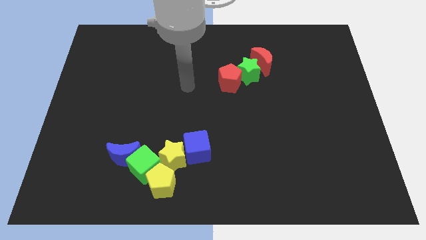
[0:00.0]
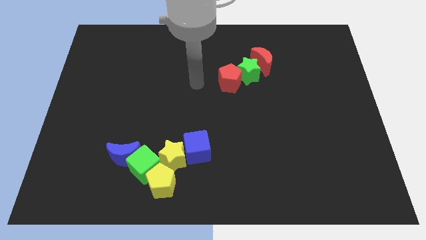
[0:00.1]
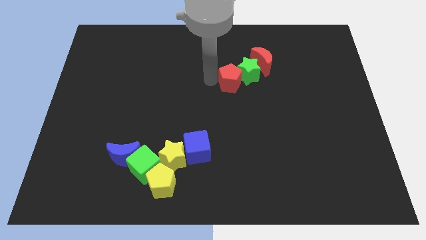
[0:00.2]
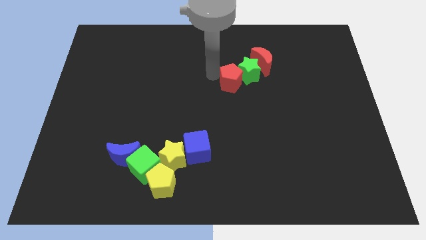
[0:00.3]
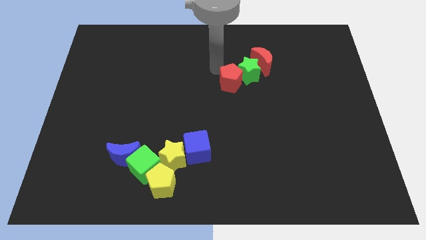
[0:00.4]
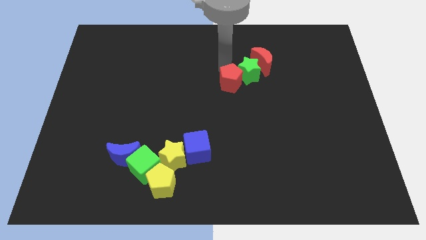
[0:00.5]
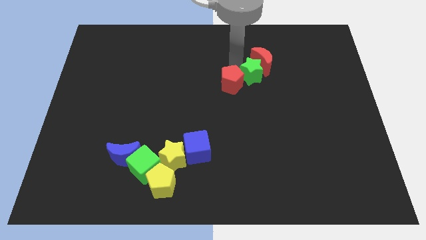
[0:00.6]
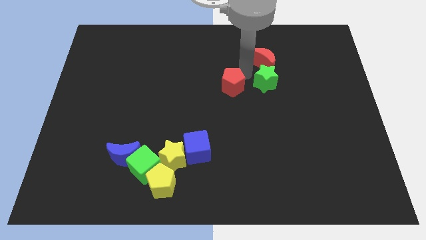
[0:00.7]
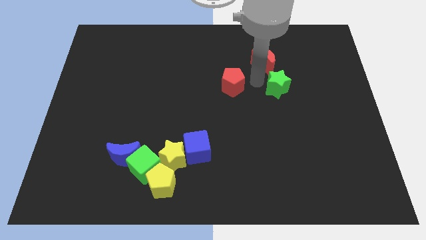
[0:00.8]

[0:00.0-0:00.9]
move the red pentagon away from the green star

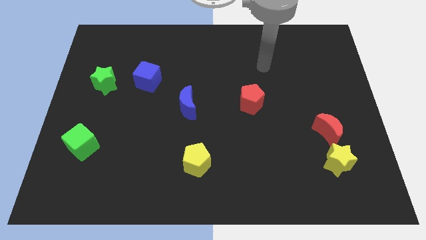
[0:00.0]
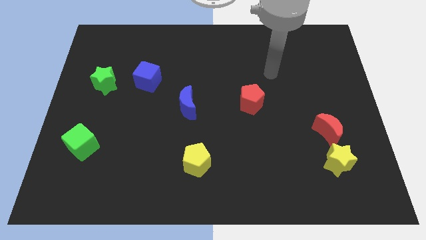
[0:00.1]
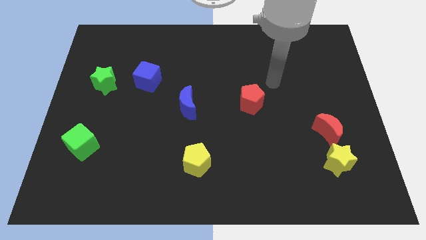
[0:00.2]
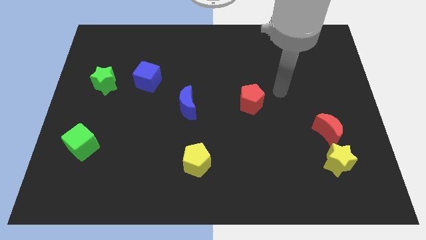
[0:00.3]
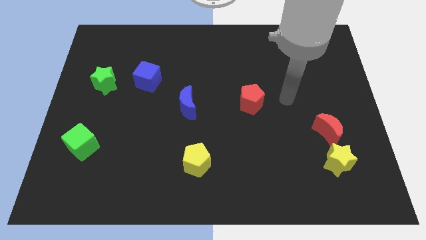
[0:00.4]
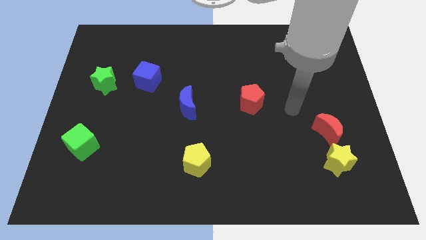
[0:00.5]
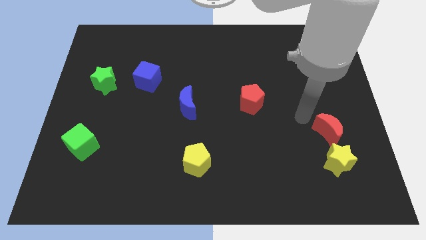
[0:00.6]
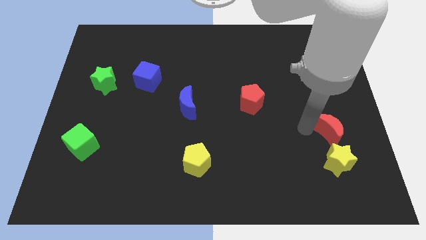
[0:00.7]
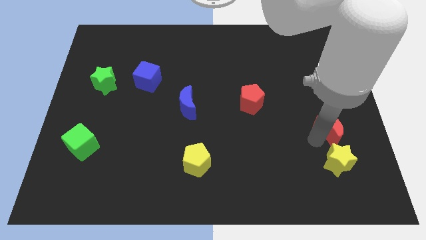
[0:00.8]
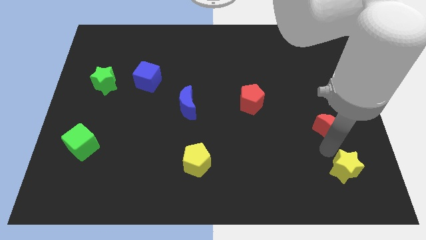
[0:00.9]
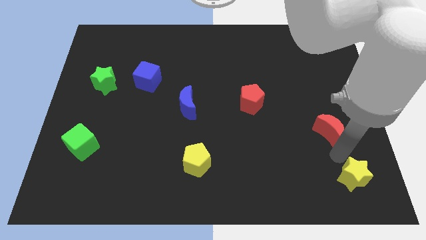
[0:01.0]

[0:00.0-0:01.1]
move the red moon away from the yellow star

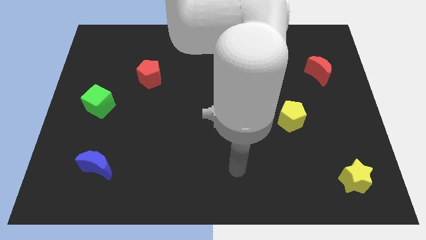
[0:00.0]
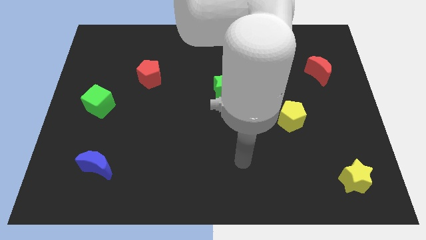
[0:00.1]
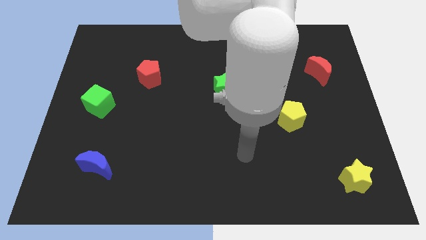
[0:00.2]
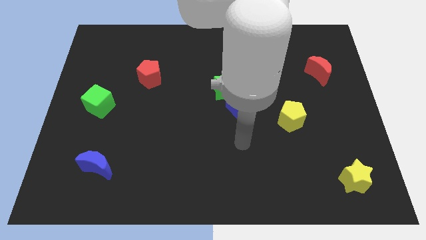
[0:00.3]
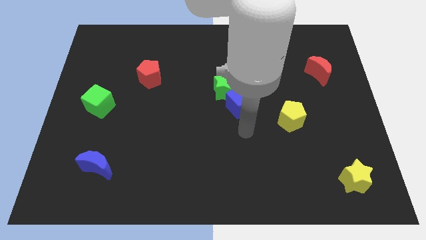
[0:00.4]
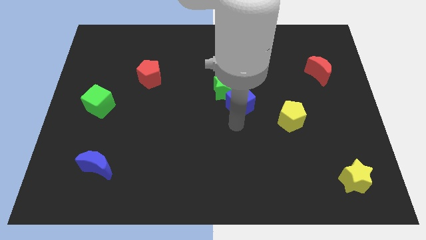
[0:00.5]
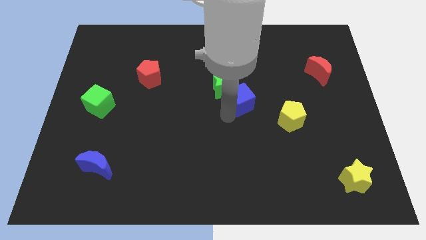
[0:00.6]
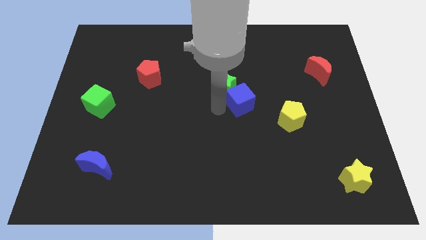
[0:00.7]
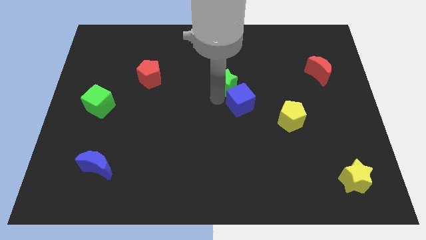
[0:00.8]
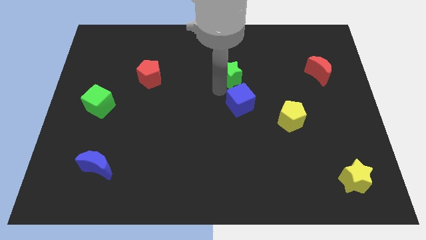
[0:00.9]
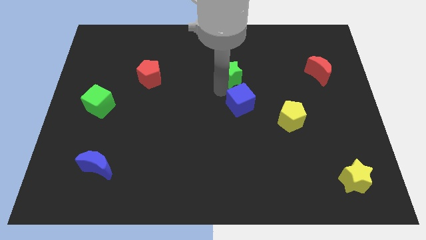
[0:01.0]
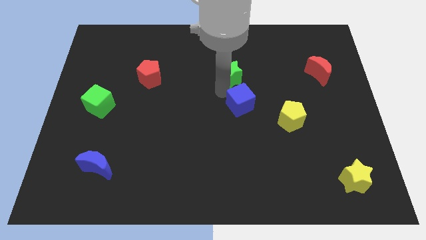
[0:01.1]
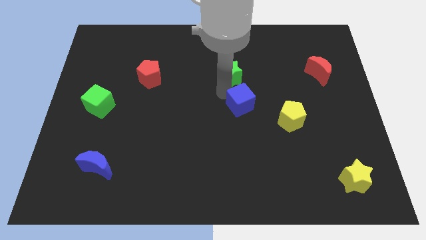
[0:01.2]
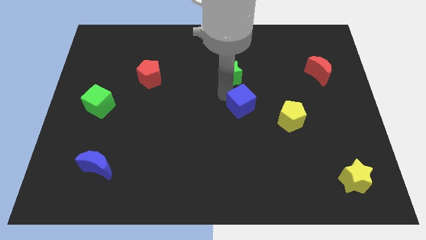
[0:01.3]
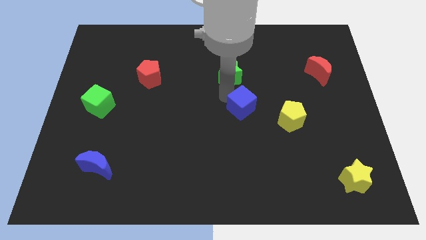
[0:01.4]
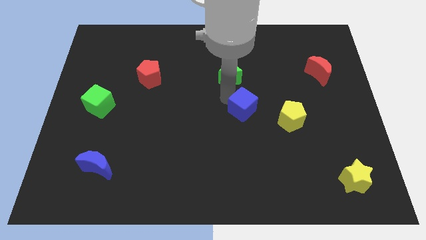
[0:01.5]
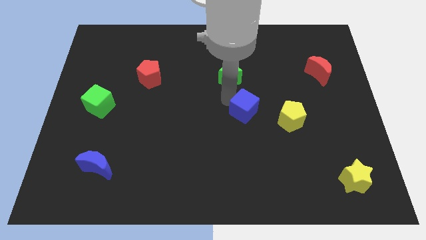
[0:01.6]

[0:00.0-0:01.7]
pull the blue cube apart from the green star

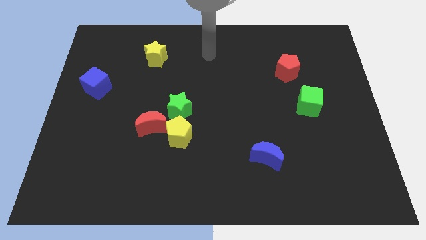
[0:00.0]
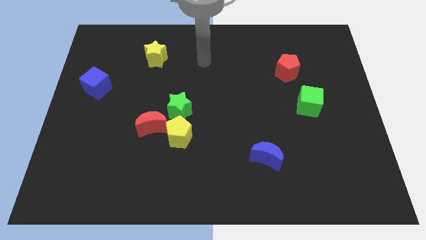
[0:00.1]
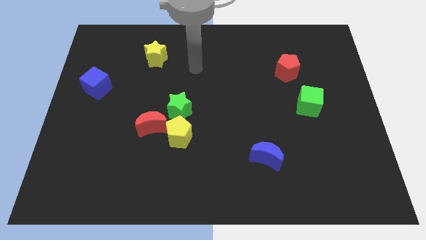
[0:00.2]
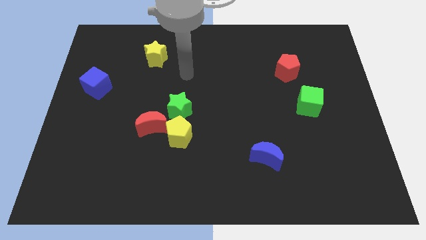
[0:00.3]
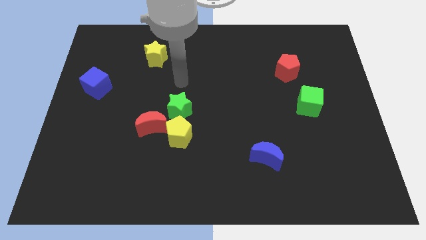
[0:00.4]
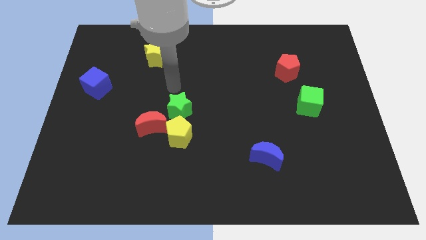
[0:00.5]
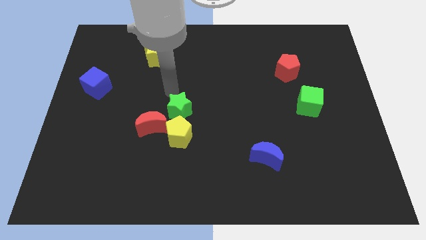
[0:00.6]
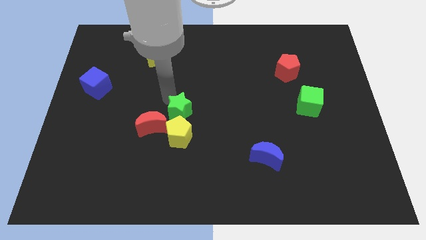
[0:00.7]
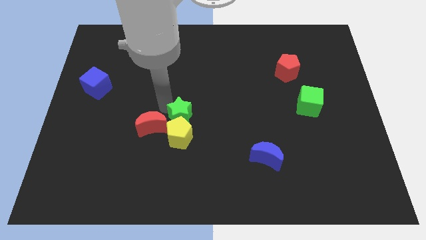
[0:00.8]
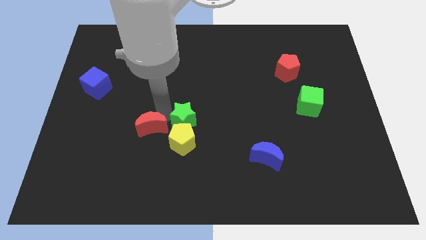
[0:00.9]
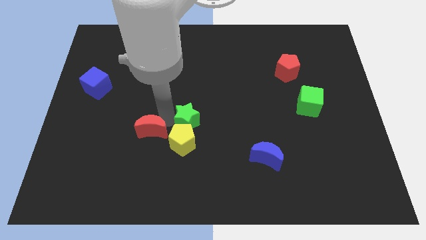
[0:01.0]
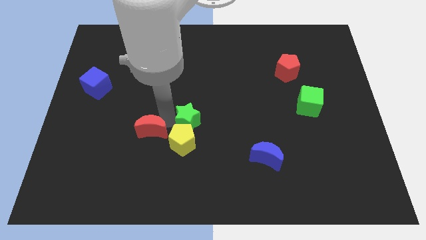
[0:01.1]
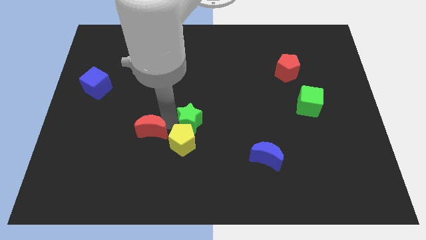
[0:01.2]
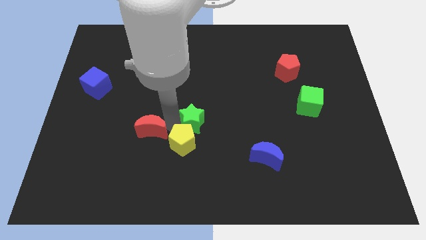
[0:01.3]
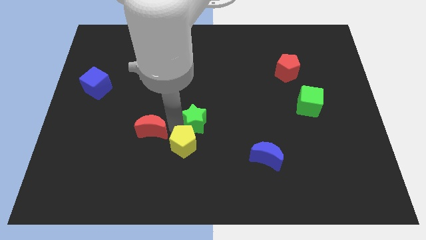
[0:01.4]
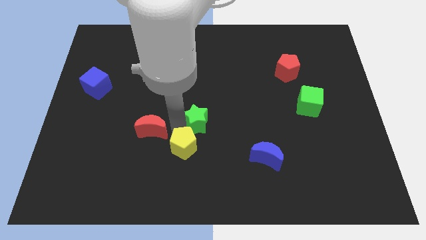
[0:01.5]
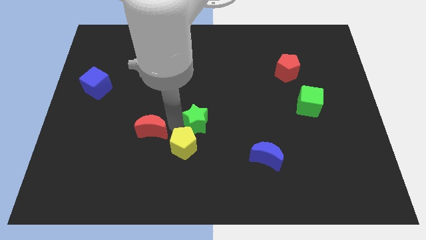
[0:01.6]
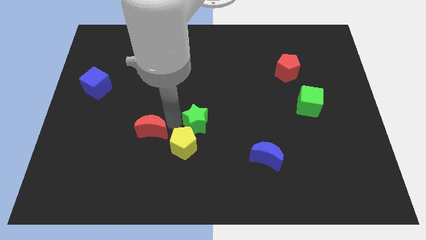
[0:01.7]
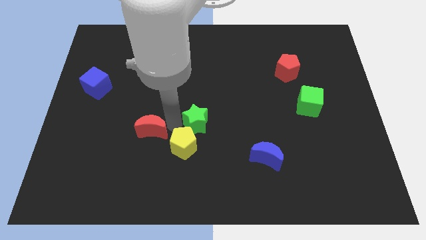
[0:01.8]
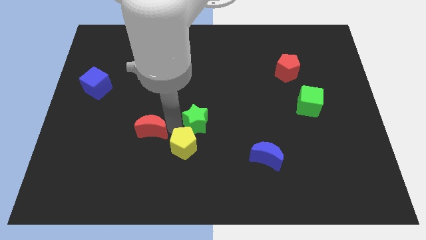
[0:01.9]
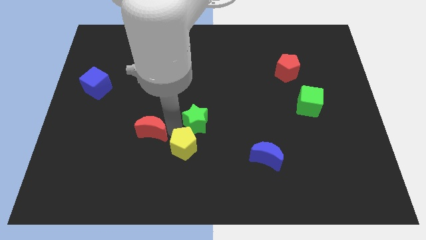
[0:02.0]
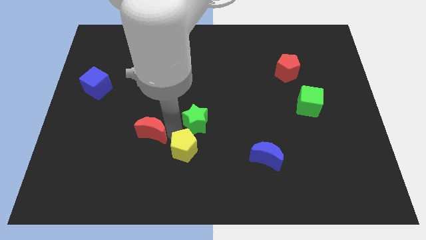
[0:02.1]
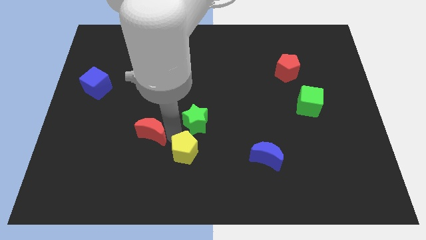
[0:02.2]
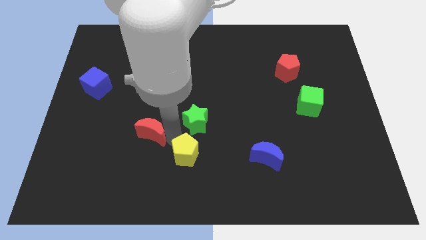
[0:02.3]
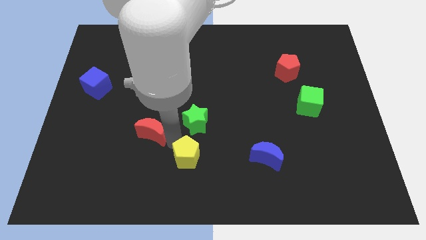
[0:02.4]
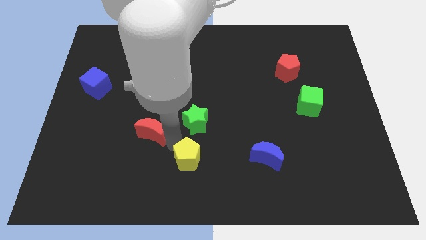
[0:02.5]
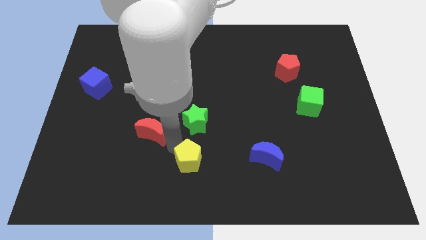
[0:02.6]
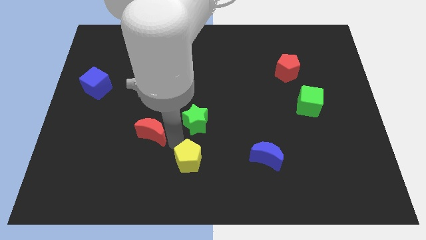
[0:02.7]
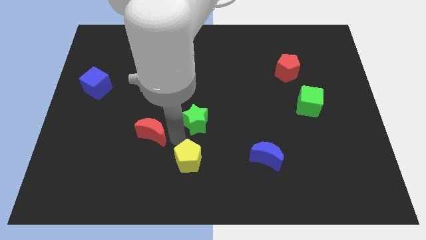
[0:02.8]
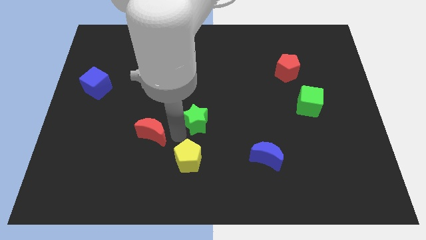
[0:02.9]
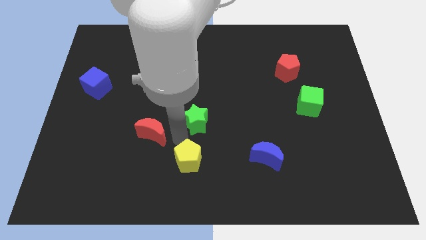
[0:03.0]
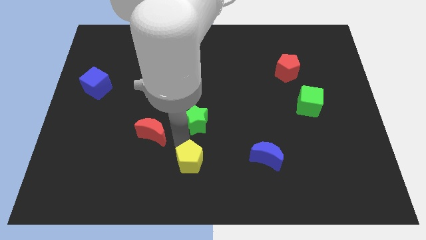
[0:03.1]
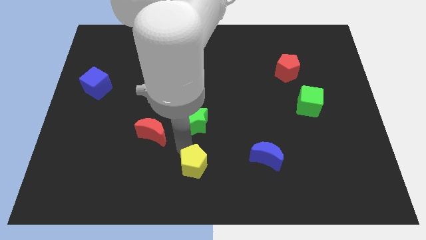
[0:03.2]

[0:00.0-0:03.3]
move the yellow pentagon away from the red moon and green star

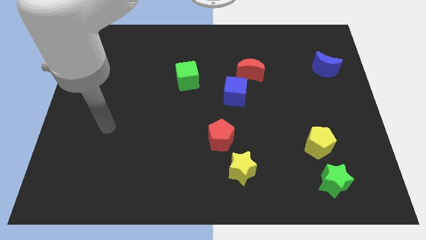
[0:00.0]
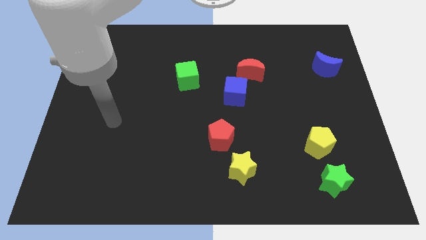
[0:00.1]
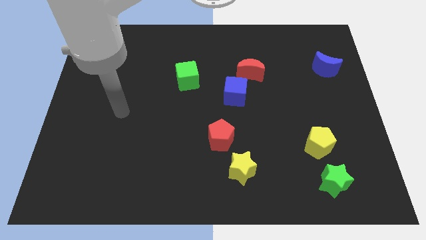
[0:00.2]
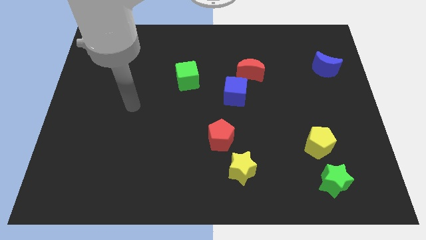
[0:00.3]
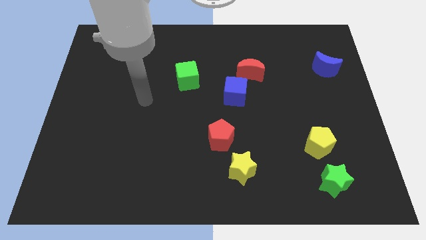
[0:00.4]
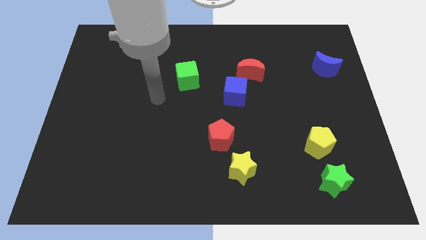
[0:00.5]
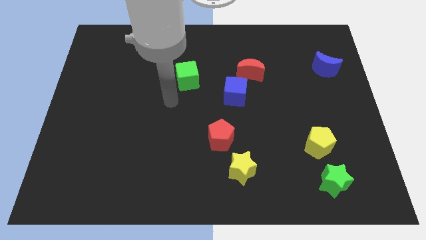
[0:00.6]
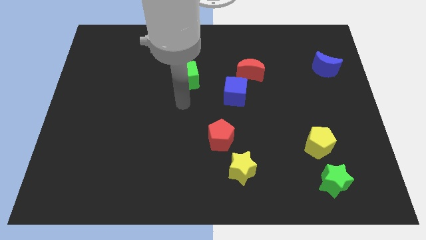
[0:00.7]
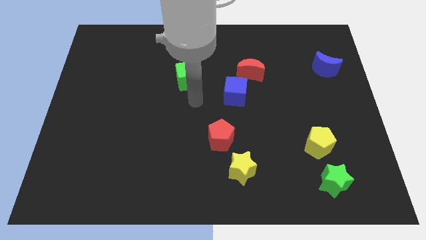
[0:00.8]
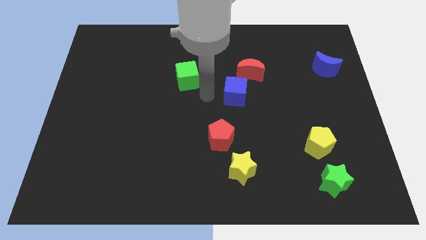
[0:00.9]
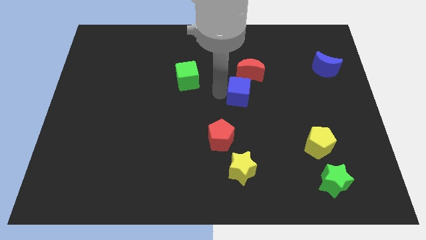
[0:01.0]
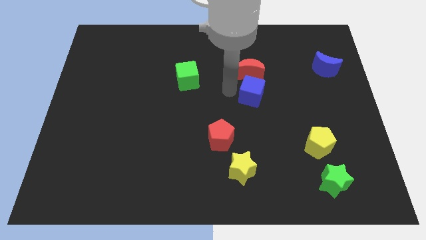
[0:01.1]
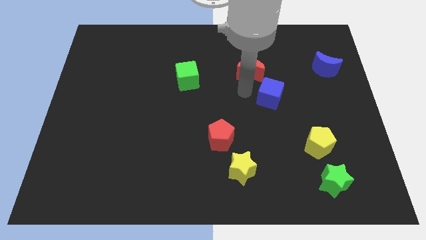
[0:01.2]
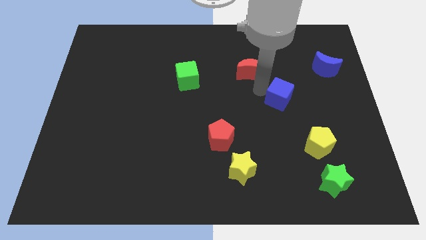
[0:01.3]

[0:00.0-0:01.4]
move the red moon away from the blue cube

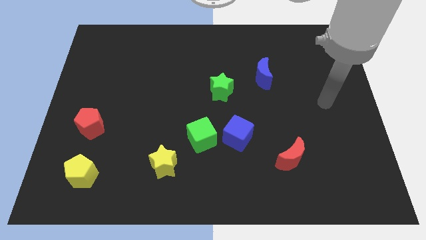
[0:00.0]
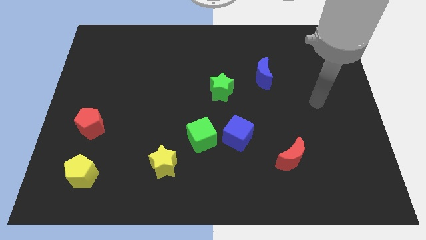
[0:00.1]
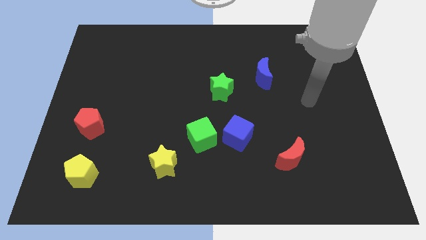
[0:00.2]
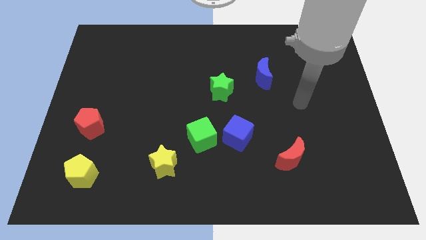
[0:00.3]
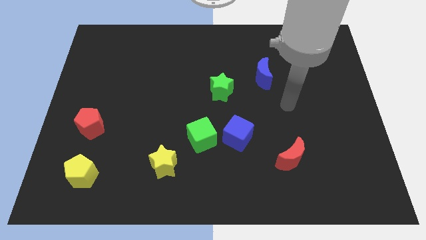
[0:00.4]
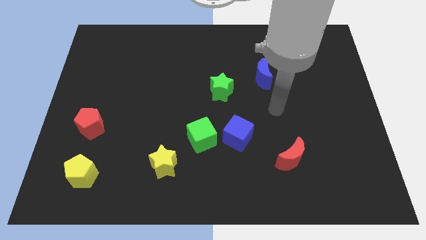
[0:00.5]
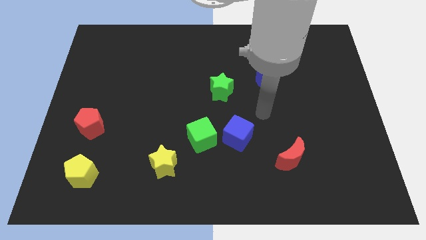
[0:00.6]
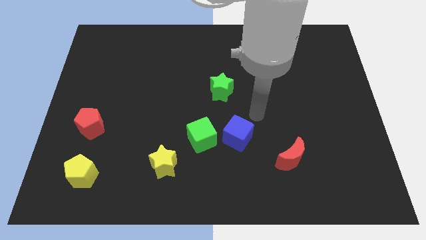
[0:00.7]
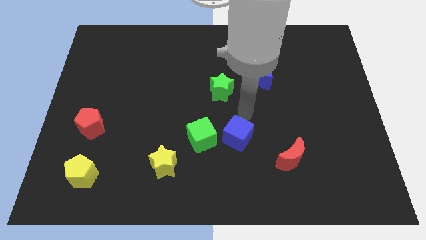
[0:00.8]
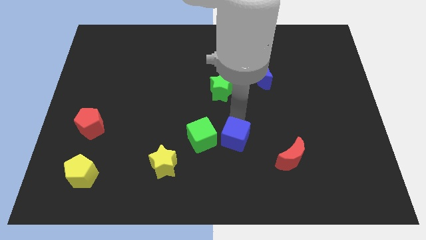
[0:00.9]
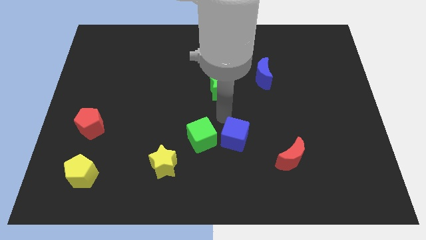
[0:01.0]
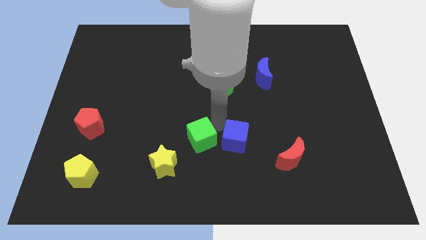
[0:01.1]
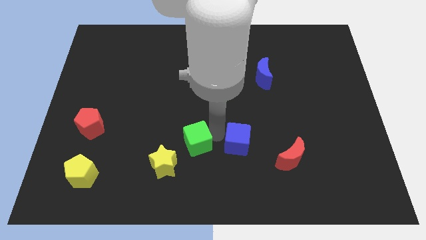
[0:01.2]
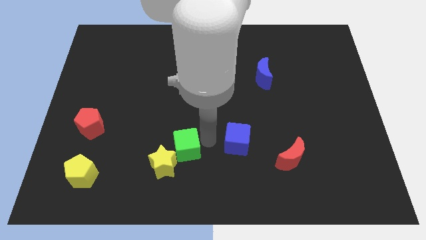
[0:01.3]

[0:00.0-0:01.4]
move the blue cube away from the green cube